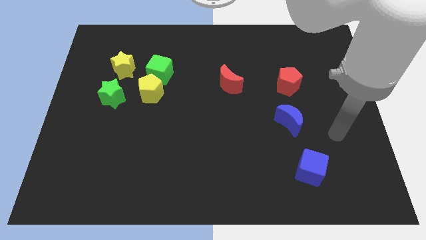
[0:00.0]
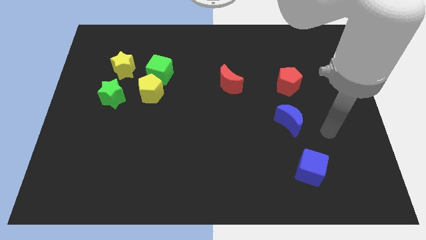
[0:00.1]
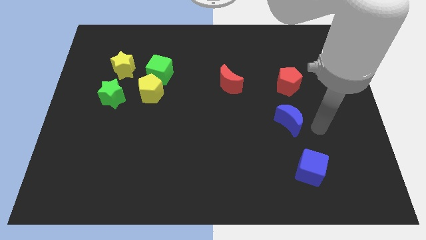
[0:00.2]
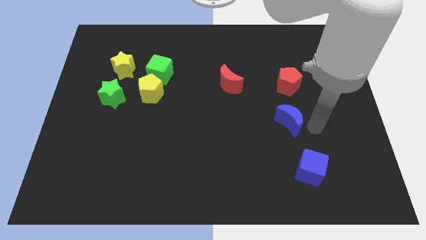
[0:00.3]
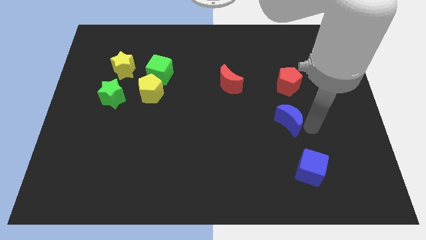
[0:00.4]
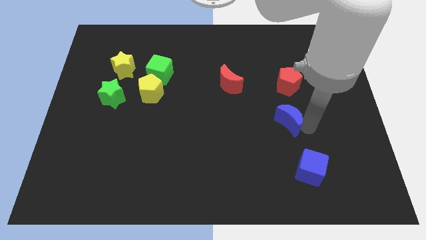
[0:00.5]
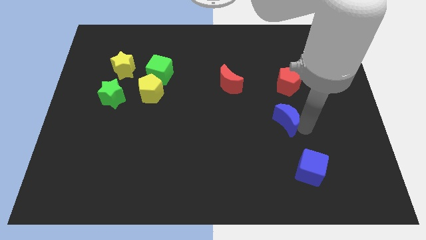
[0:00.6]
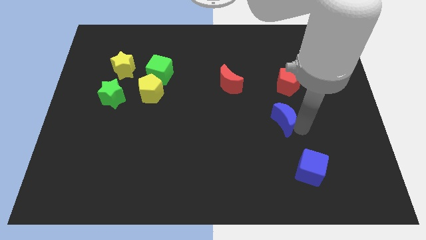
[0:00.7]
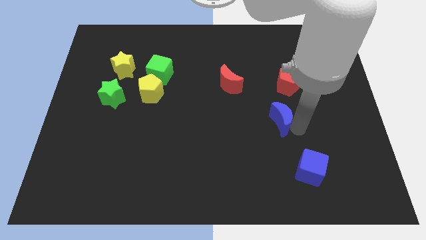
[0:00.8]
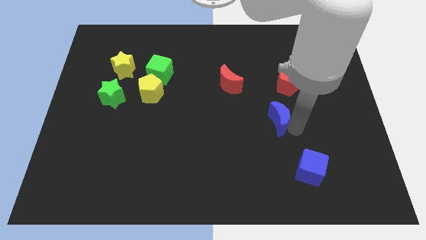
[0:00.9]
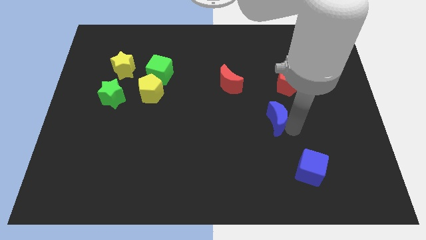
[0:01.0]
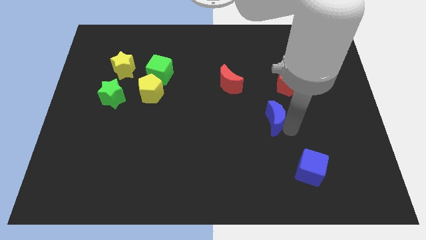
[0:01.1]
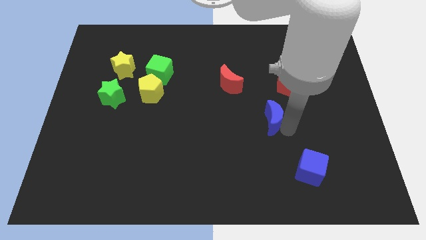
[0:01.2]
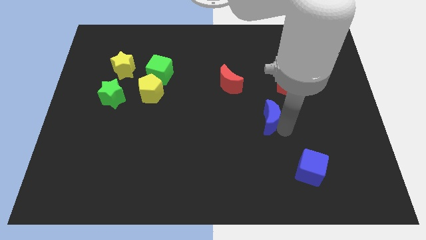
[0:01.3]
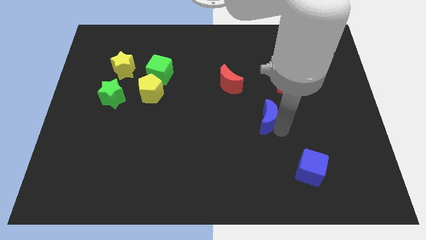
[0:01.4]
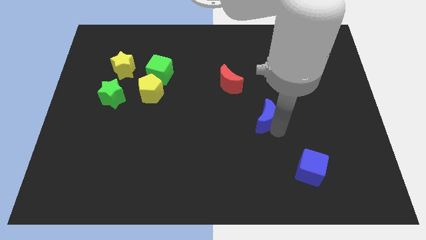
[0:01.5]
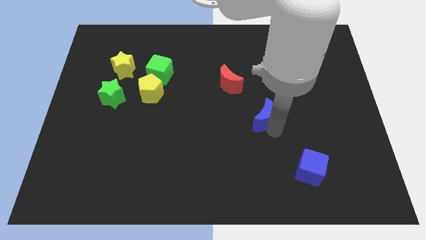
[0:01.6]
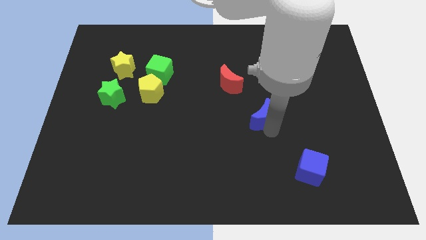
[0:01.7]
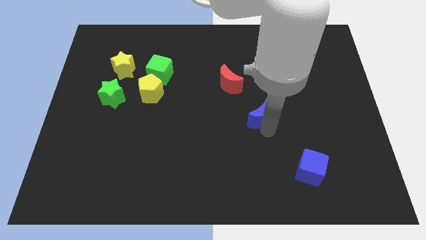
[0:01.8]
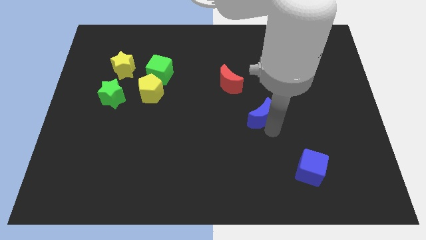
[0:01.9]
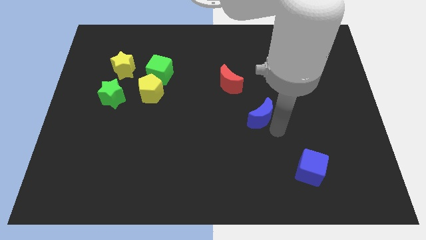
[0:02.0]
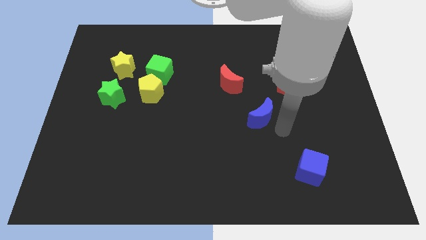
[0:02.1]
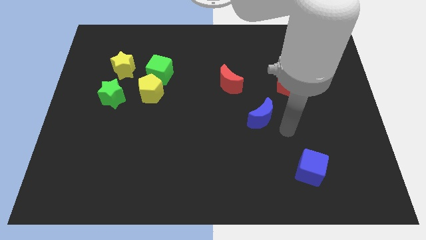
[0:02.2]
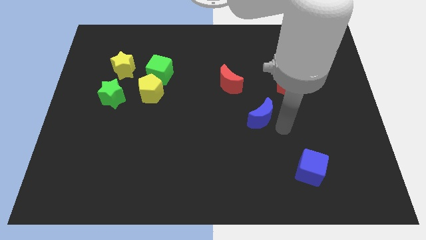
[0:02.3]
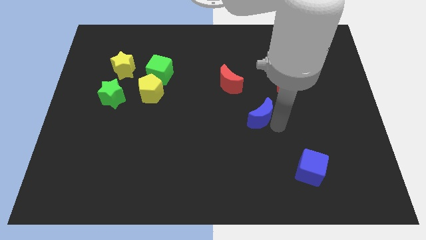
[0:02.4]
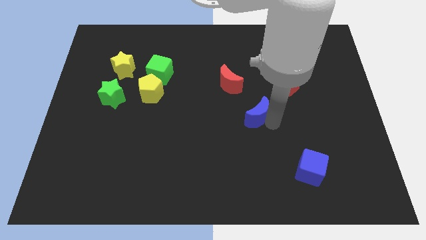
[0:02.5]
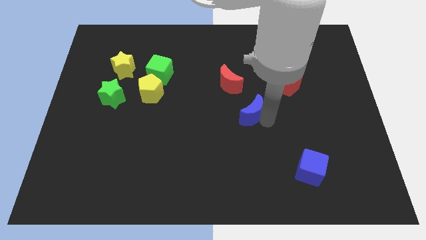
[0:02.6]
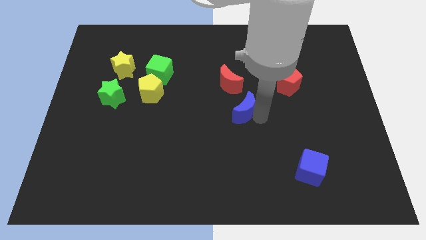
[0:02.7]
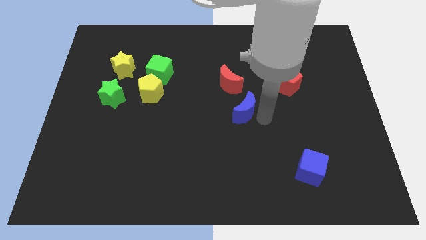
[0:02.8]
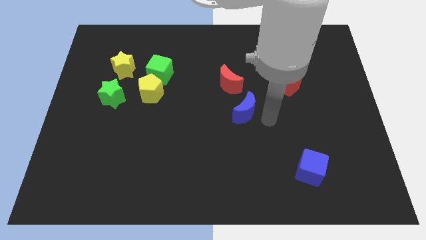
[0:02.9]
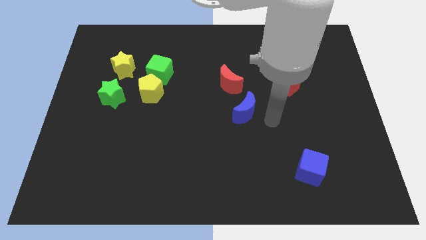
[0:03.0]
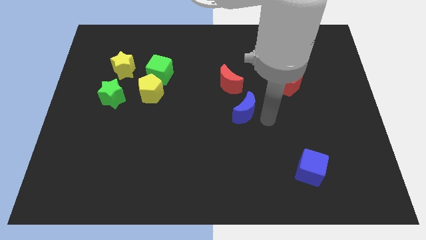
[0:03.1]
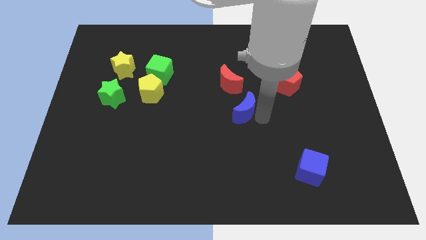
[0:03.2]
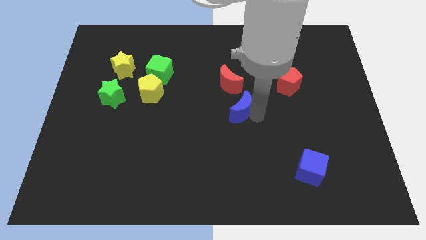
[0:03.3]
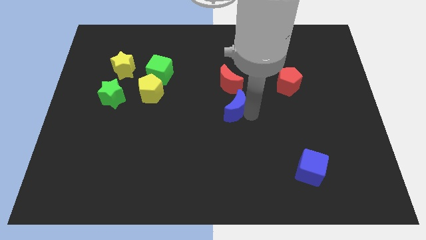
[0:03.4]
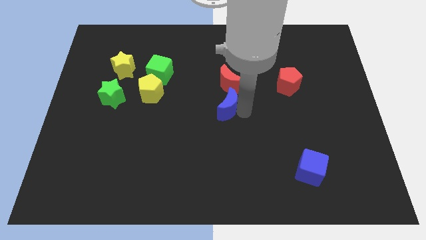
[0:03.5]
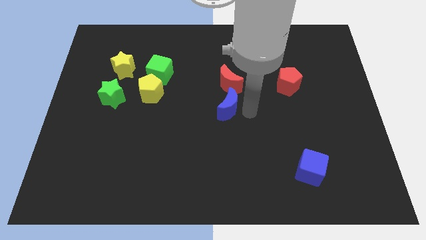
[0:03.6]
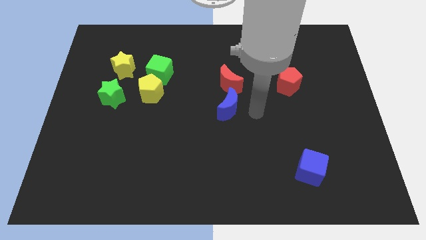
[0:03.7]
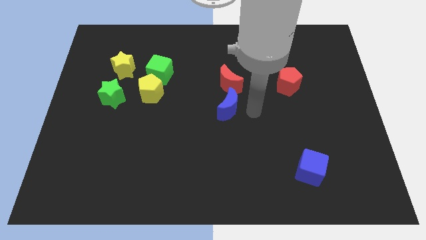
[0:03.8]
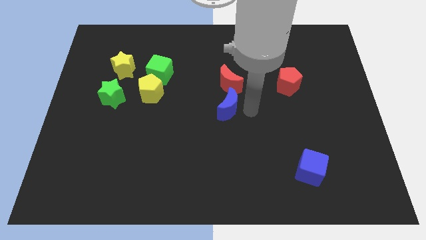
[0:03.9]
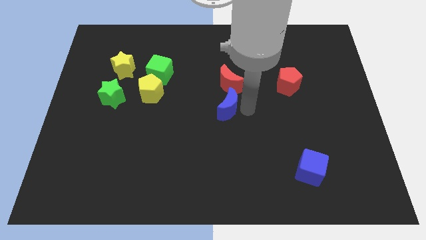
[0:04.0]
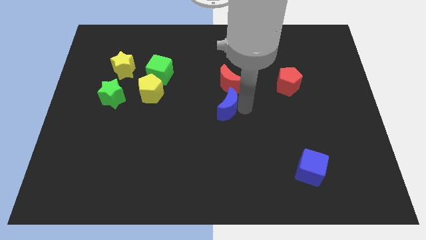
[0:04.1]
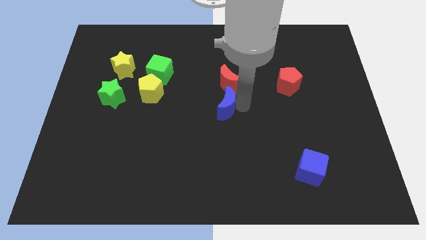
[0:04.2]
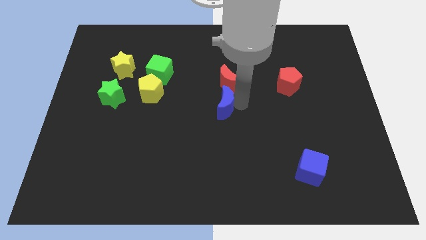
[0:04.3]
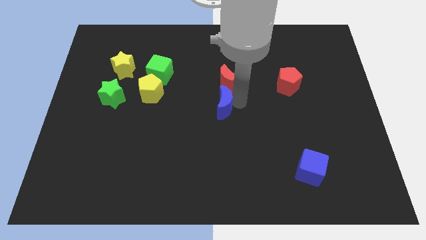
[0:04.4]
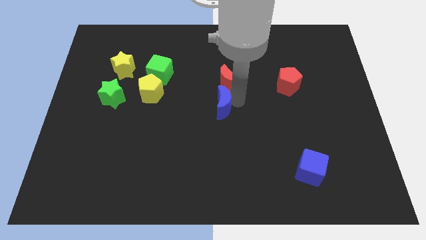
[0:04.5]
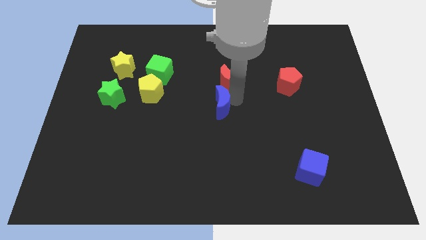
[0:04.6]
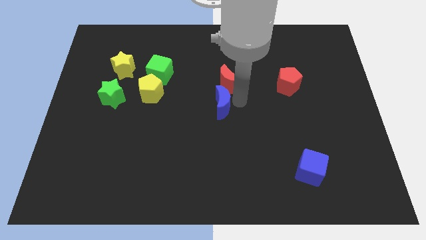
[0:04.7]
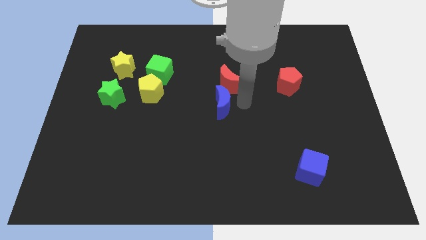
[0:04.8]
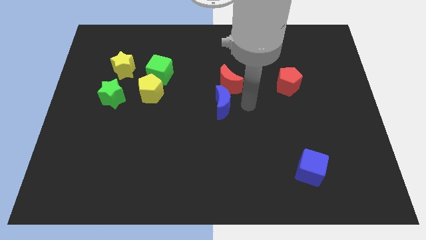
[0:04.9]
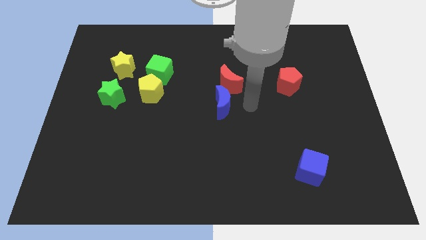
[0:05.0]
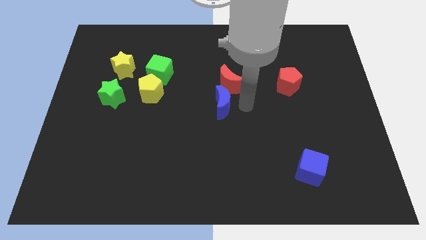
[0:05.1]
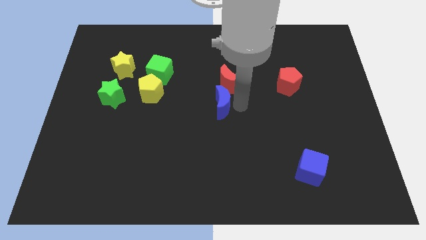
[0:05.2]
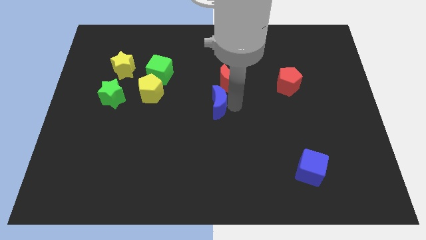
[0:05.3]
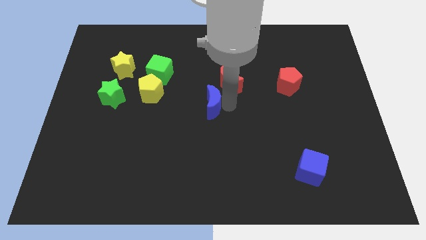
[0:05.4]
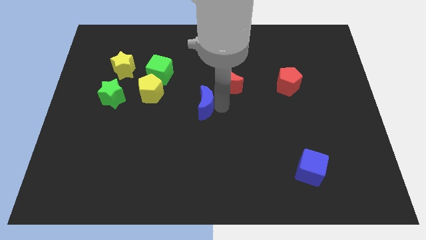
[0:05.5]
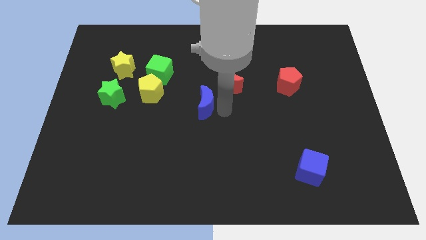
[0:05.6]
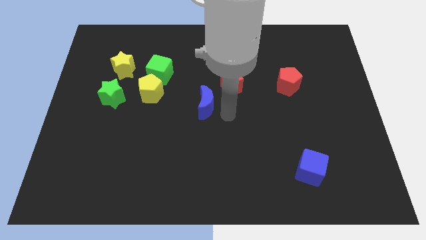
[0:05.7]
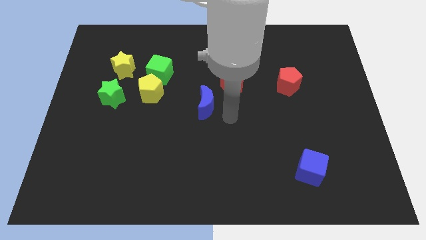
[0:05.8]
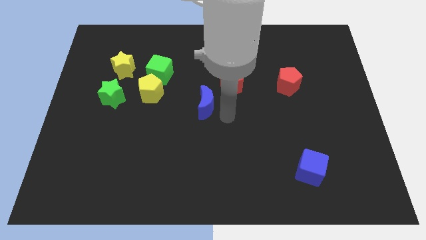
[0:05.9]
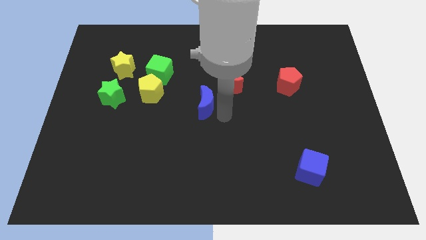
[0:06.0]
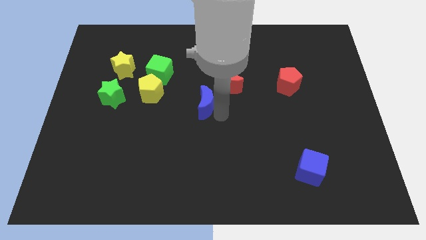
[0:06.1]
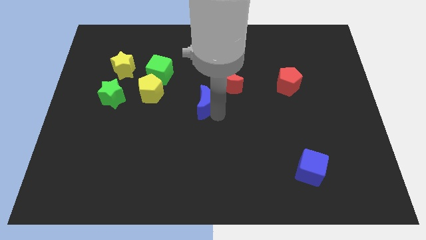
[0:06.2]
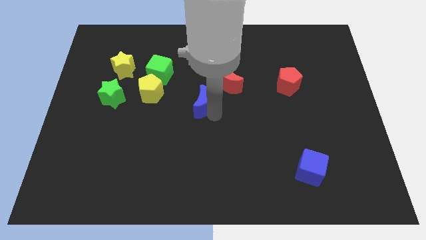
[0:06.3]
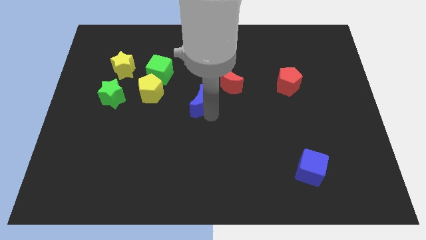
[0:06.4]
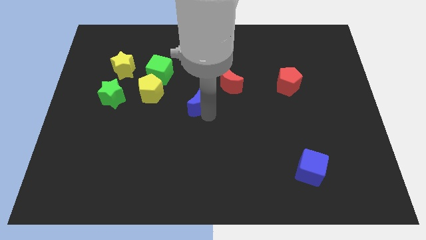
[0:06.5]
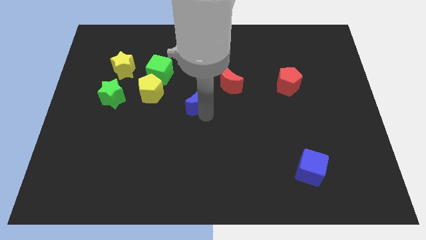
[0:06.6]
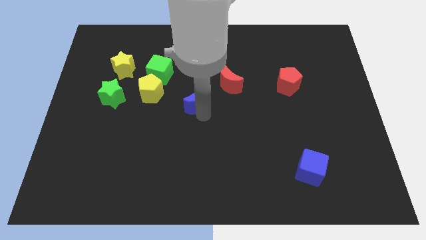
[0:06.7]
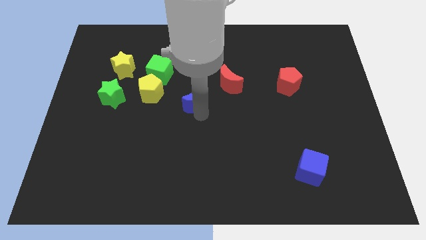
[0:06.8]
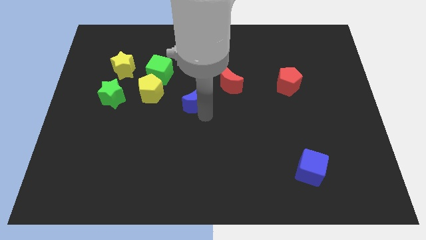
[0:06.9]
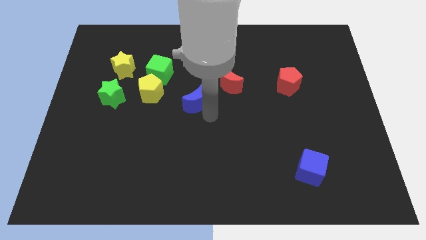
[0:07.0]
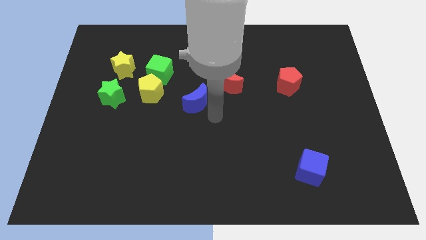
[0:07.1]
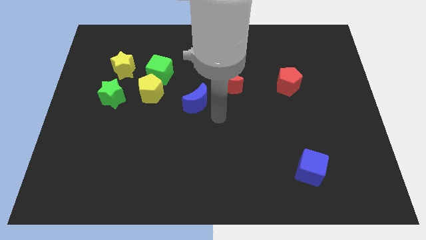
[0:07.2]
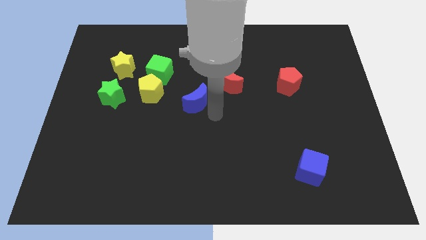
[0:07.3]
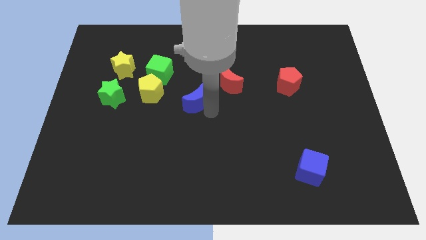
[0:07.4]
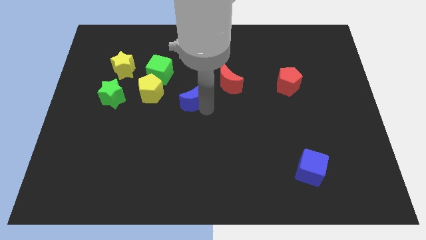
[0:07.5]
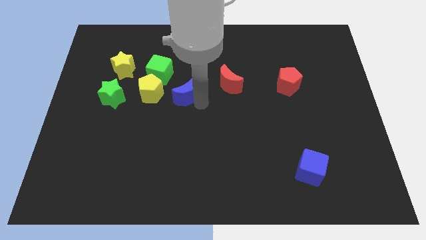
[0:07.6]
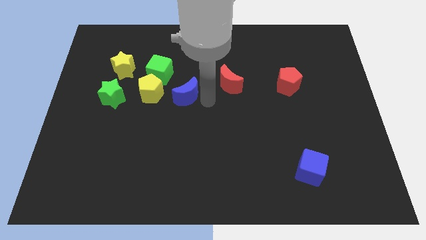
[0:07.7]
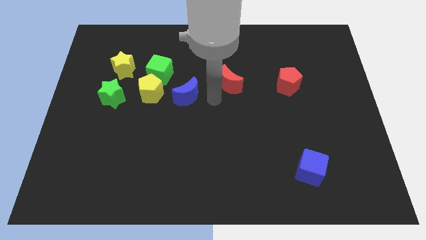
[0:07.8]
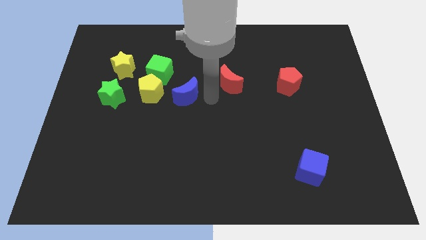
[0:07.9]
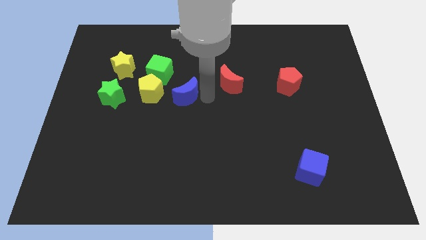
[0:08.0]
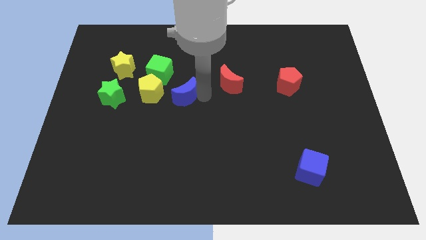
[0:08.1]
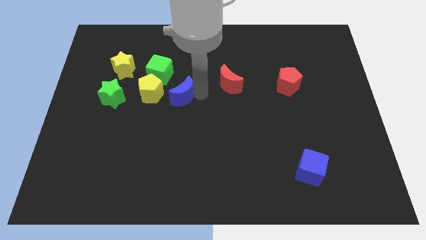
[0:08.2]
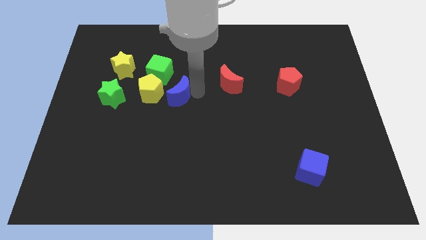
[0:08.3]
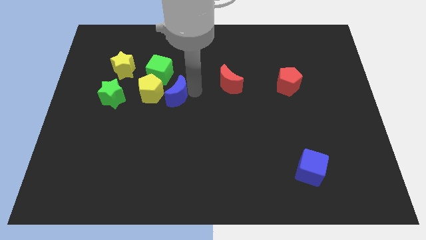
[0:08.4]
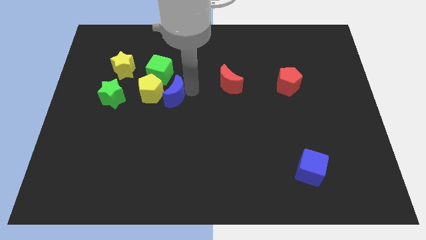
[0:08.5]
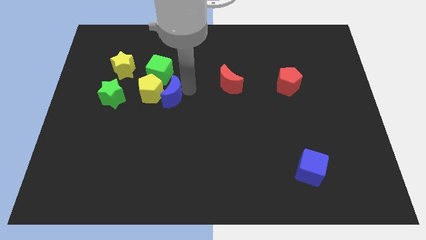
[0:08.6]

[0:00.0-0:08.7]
move the blue moon next to the yellow pentagon
